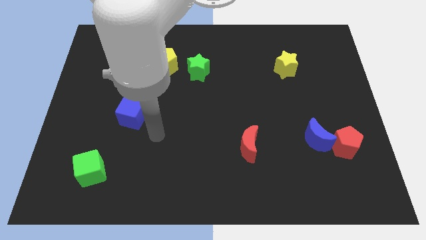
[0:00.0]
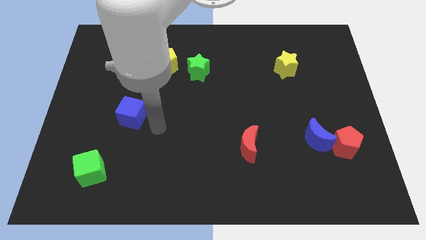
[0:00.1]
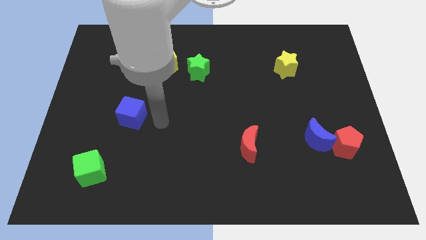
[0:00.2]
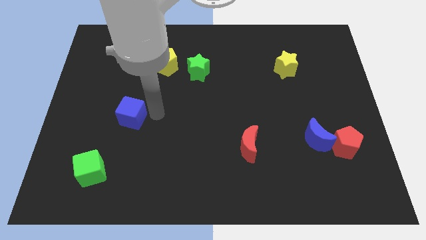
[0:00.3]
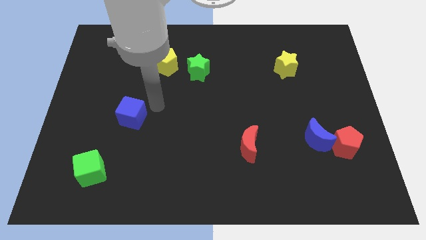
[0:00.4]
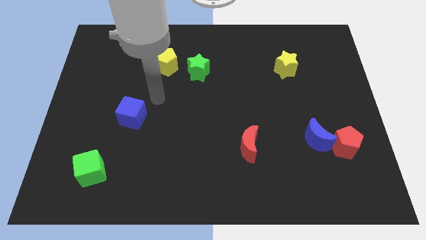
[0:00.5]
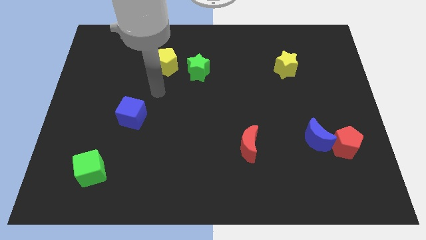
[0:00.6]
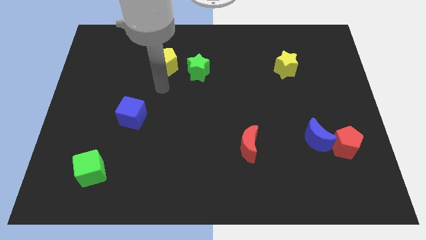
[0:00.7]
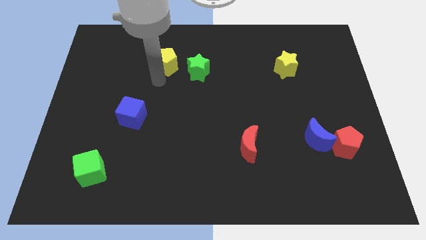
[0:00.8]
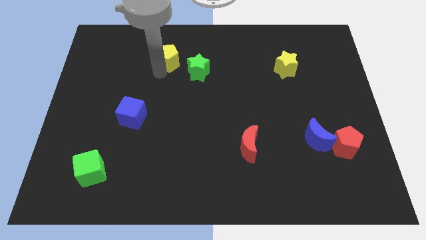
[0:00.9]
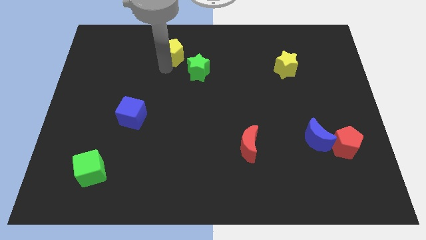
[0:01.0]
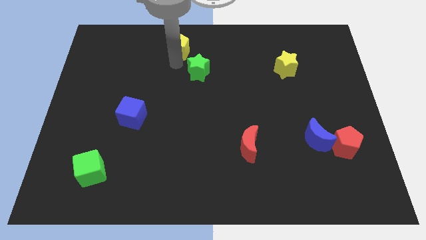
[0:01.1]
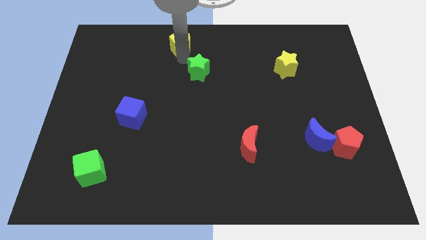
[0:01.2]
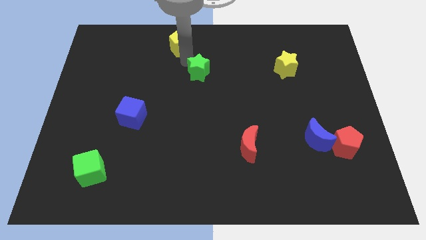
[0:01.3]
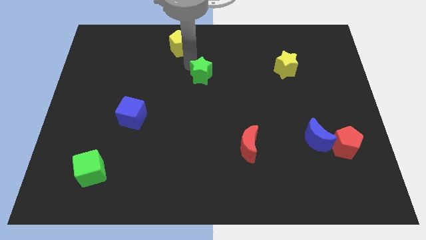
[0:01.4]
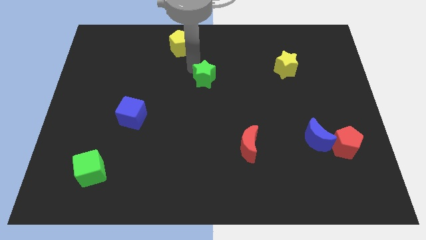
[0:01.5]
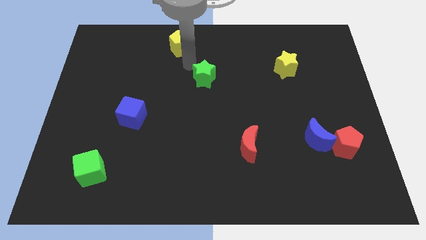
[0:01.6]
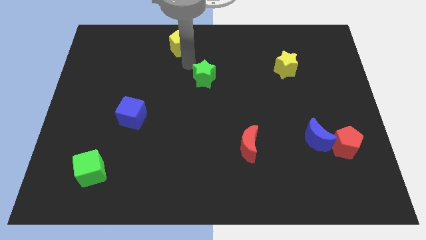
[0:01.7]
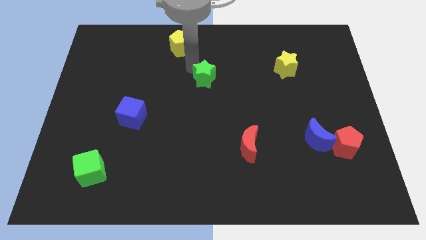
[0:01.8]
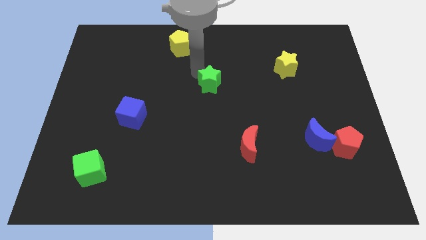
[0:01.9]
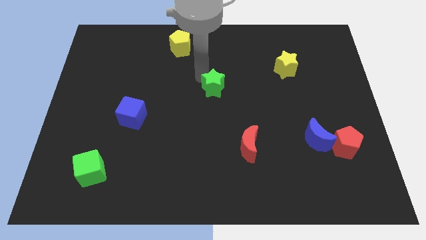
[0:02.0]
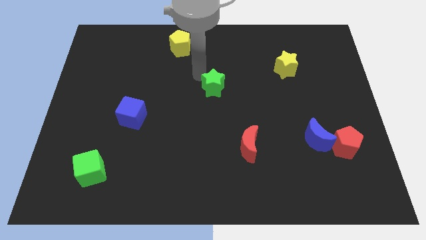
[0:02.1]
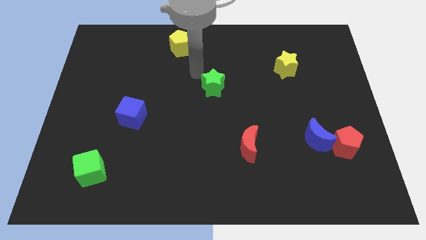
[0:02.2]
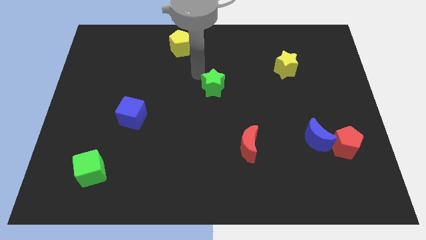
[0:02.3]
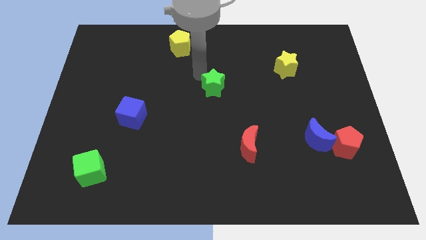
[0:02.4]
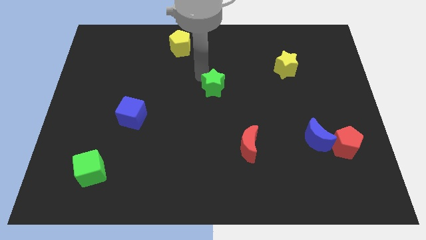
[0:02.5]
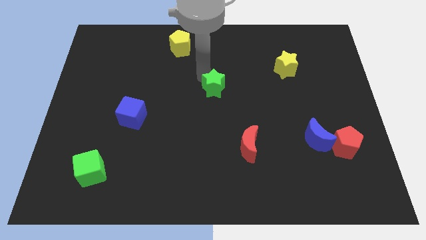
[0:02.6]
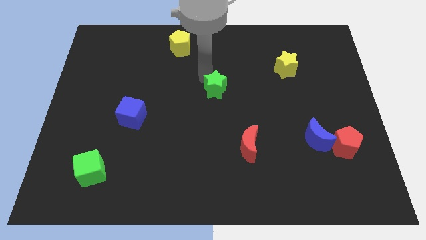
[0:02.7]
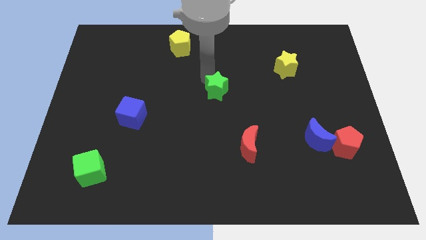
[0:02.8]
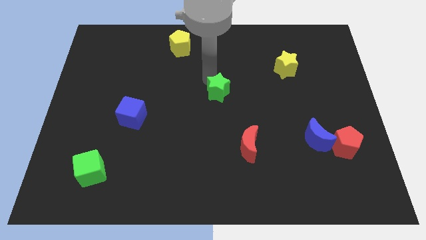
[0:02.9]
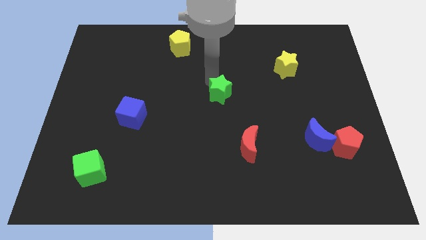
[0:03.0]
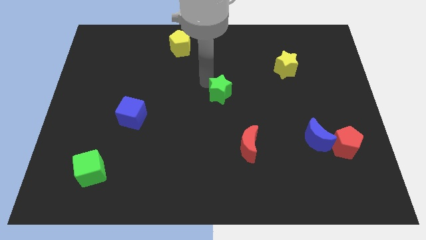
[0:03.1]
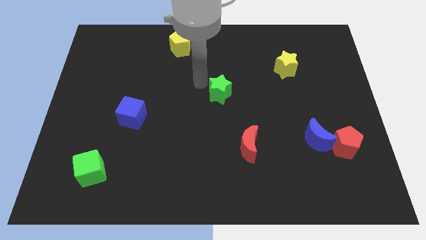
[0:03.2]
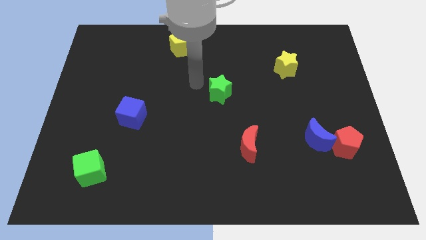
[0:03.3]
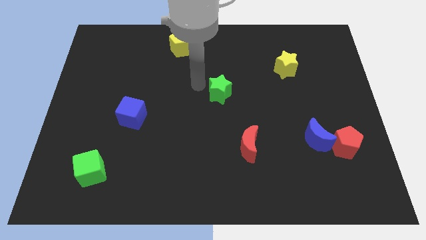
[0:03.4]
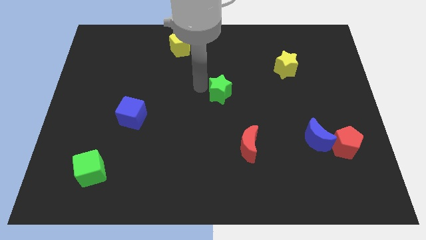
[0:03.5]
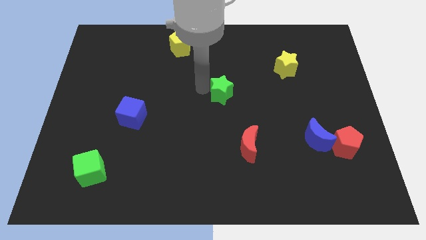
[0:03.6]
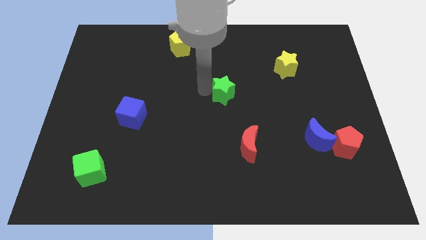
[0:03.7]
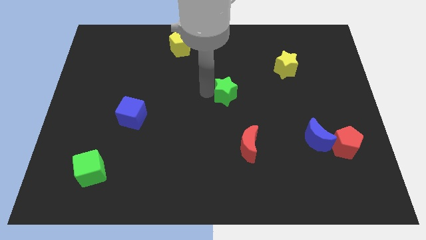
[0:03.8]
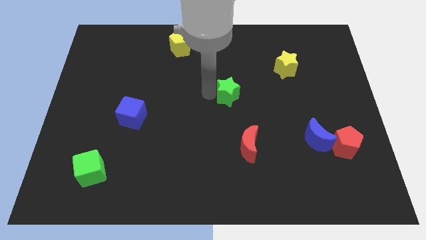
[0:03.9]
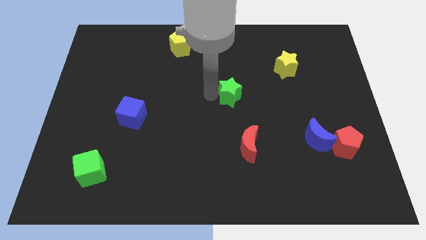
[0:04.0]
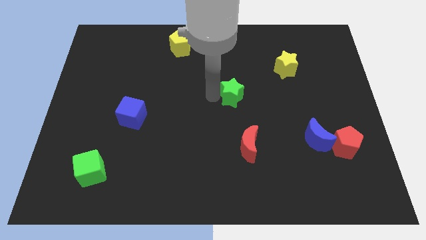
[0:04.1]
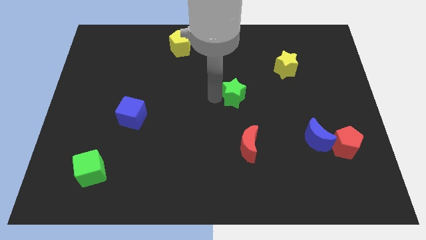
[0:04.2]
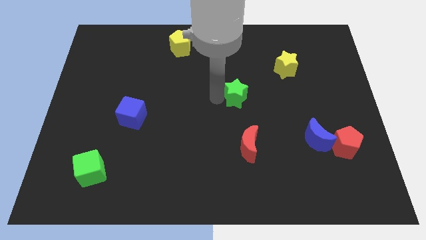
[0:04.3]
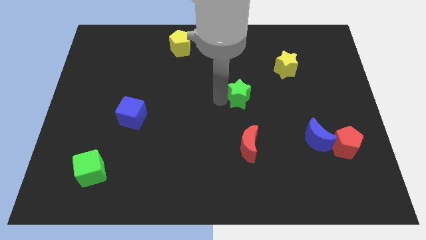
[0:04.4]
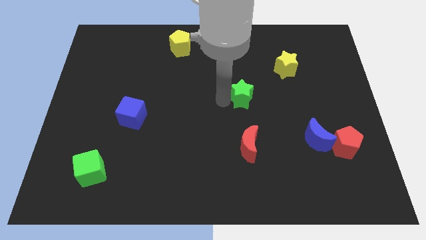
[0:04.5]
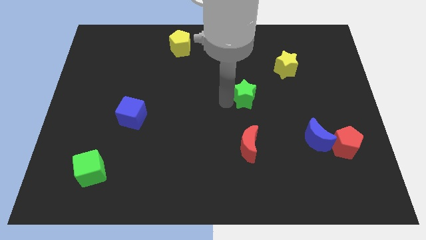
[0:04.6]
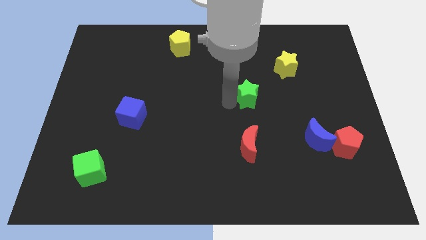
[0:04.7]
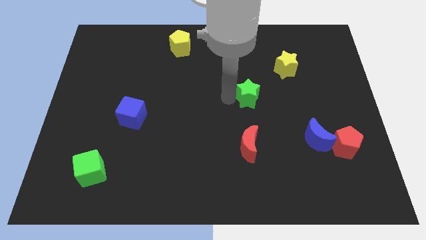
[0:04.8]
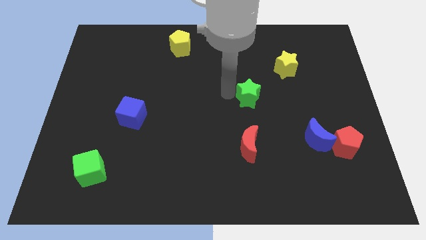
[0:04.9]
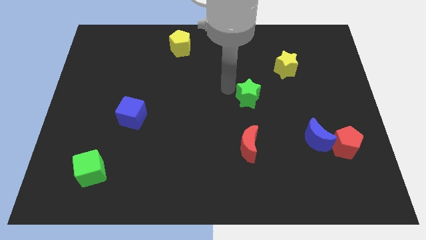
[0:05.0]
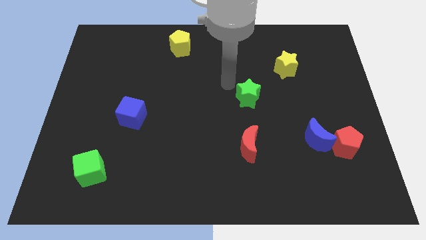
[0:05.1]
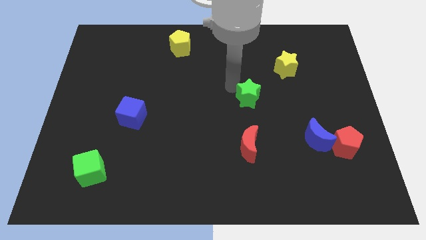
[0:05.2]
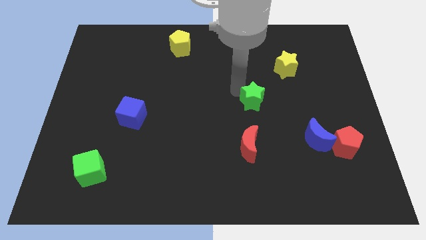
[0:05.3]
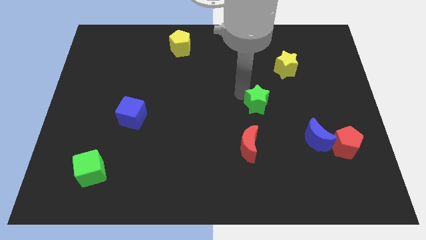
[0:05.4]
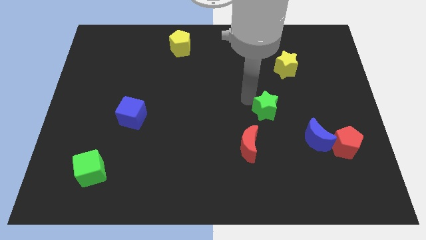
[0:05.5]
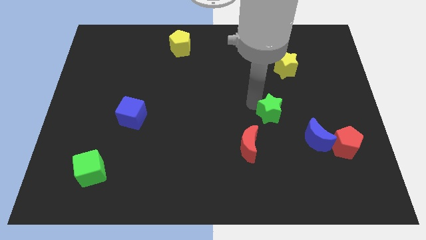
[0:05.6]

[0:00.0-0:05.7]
put the green star to the top left of the blue moon

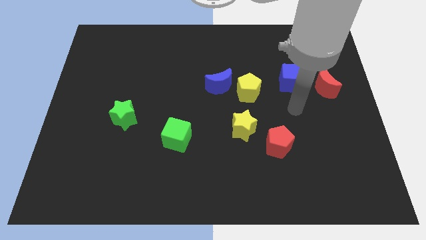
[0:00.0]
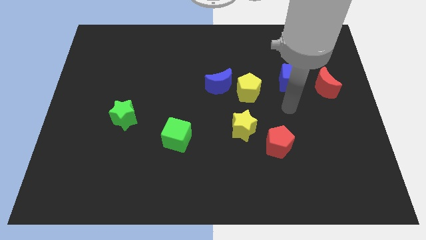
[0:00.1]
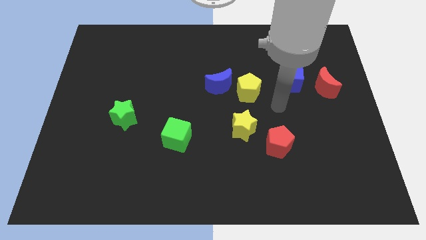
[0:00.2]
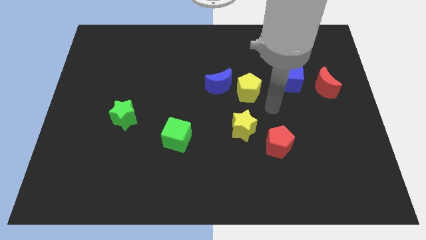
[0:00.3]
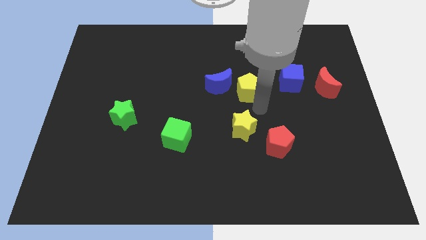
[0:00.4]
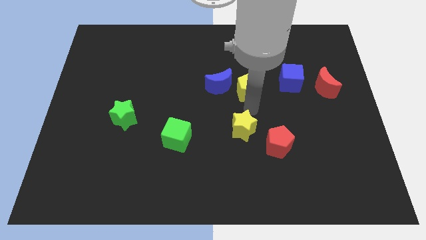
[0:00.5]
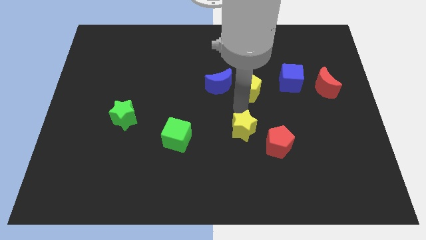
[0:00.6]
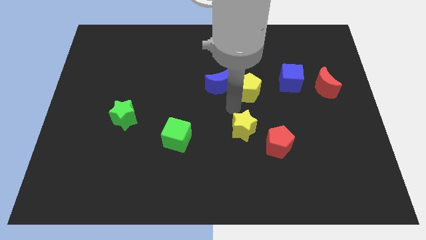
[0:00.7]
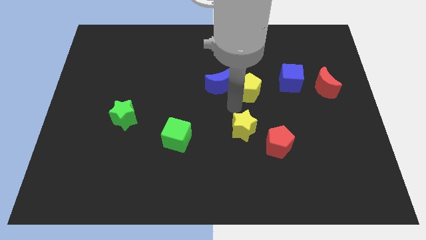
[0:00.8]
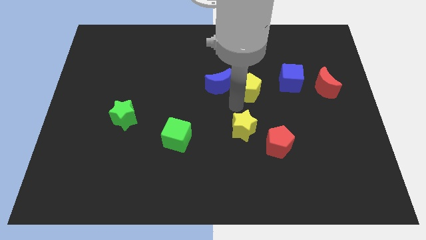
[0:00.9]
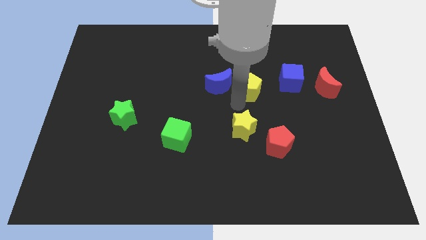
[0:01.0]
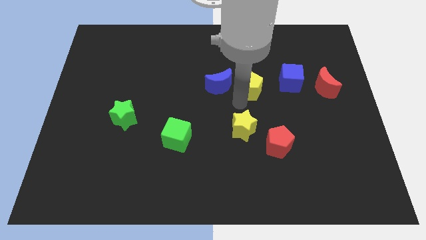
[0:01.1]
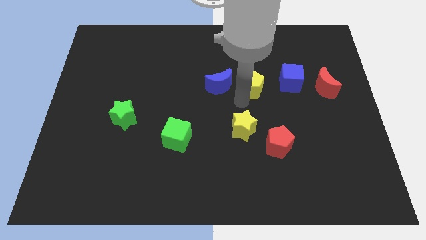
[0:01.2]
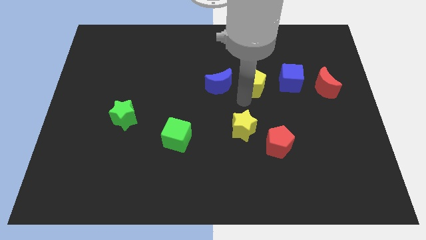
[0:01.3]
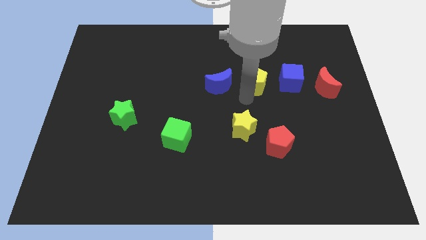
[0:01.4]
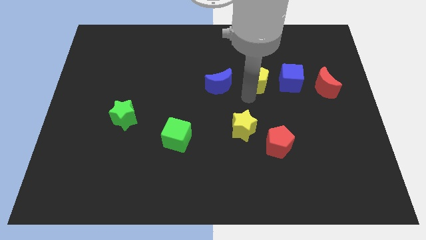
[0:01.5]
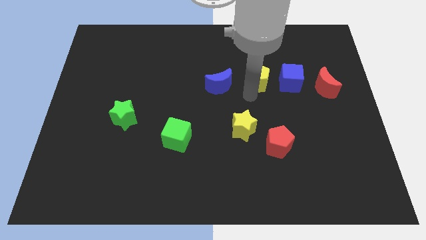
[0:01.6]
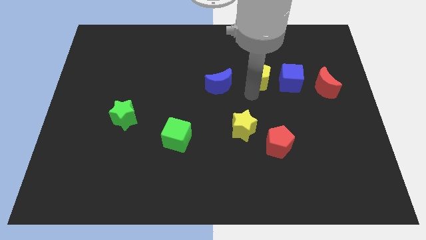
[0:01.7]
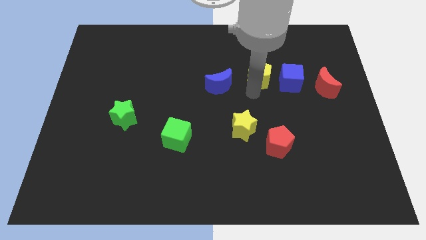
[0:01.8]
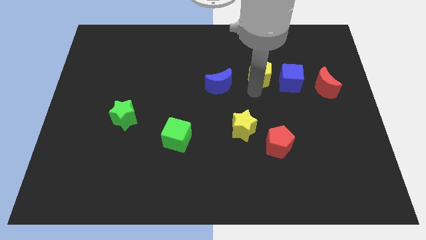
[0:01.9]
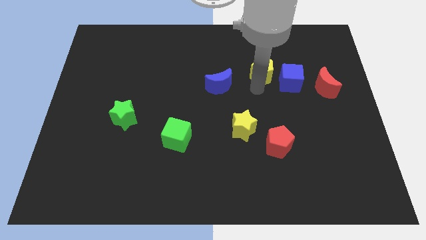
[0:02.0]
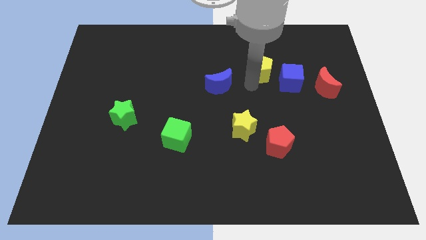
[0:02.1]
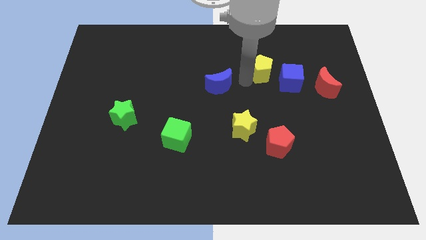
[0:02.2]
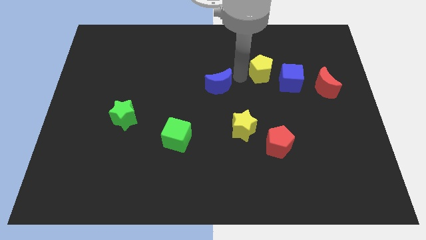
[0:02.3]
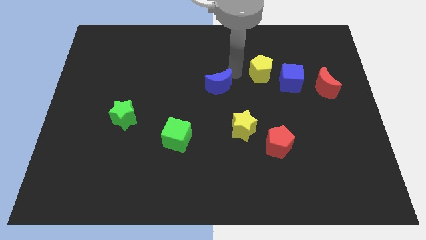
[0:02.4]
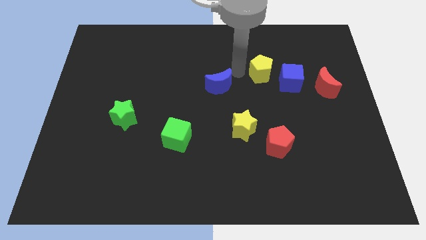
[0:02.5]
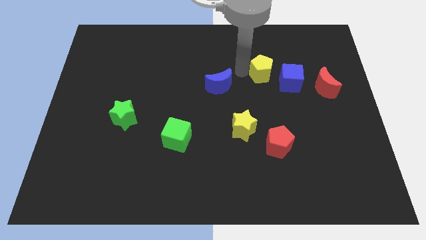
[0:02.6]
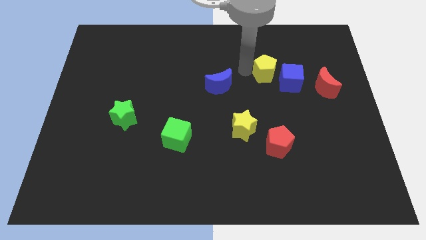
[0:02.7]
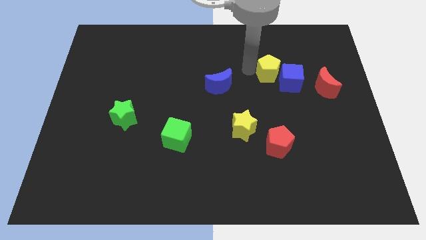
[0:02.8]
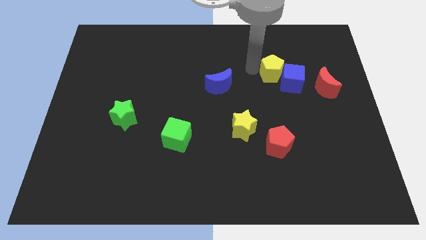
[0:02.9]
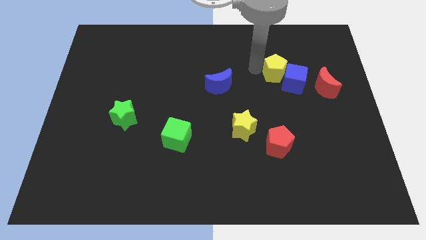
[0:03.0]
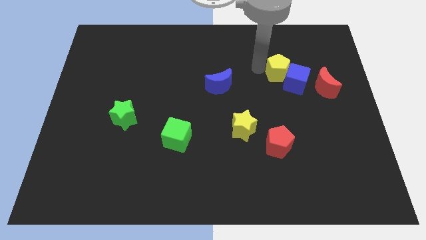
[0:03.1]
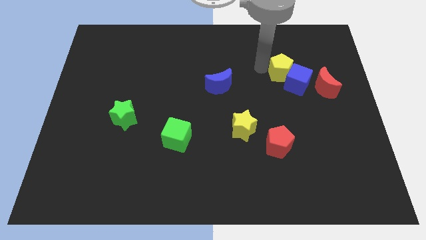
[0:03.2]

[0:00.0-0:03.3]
put the yellow pentagon to the top left of the red moon
